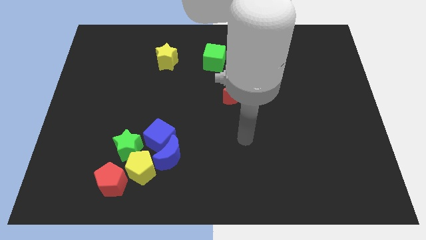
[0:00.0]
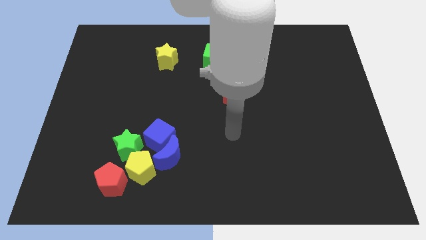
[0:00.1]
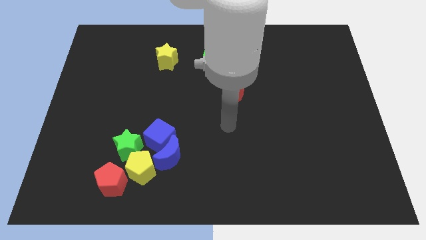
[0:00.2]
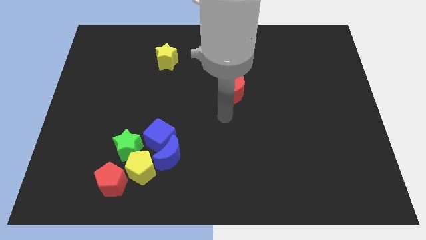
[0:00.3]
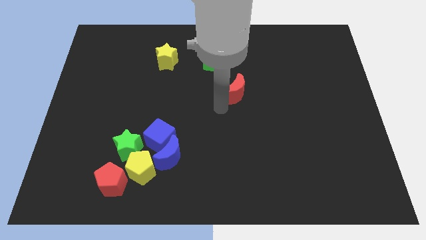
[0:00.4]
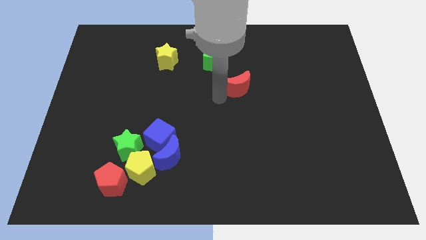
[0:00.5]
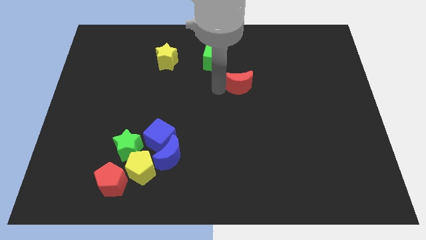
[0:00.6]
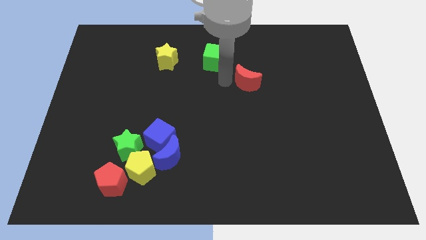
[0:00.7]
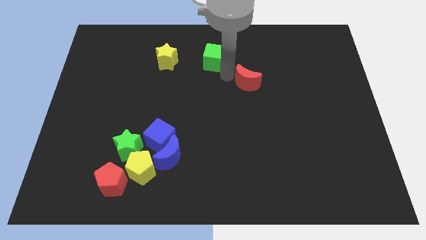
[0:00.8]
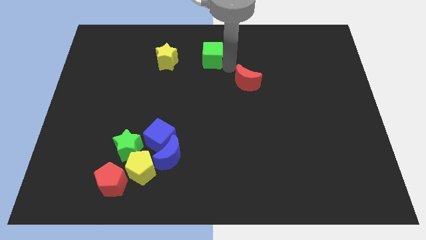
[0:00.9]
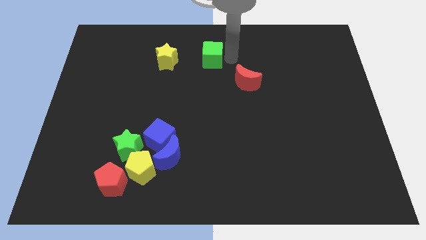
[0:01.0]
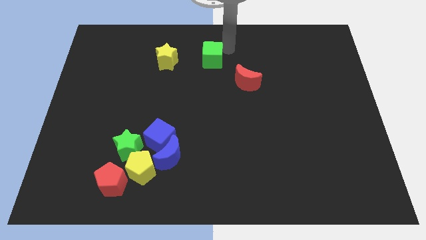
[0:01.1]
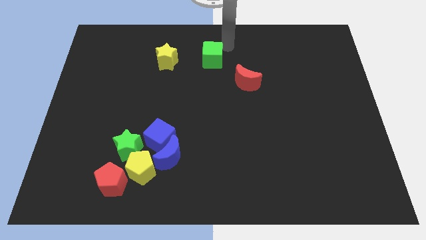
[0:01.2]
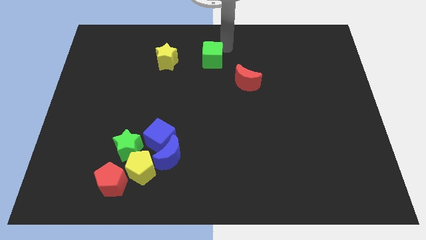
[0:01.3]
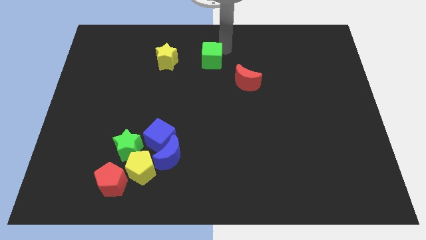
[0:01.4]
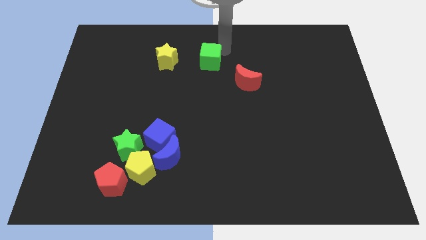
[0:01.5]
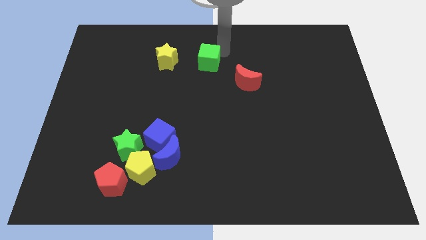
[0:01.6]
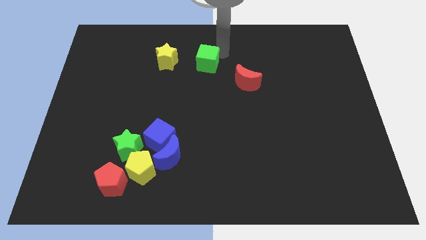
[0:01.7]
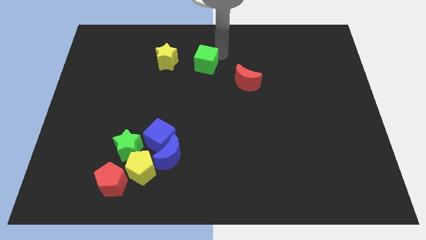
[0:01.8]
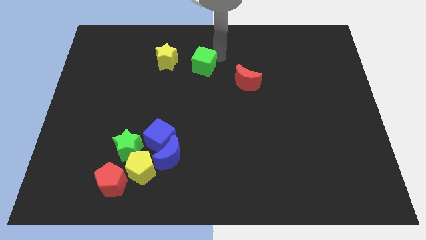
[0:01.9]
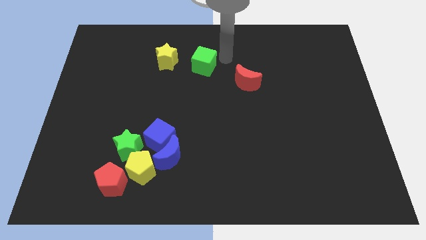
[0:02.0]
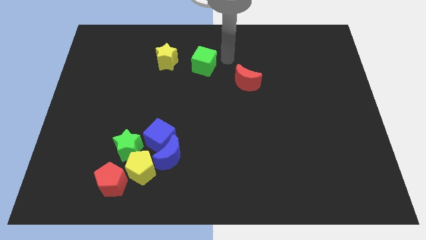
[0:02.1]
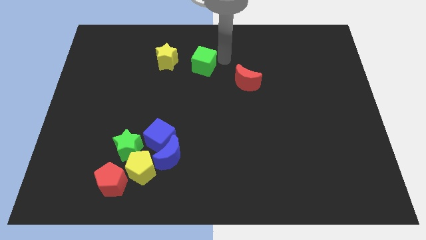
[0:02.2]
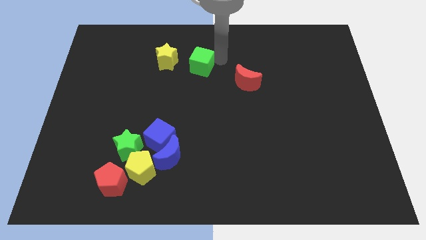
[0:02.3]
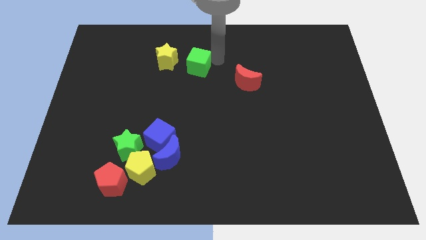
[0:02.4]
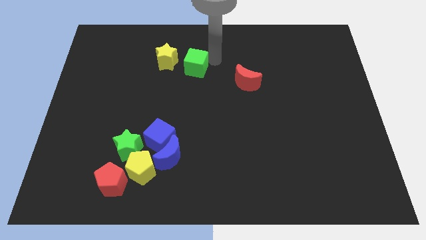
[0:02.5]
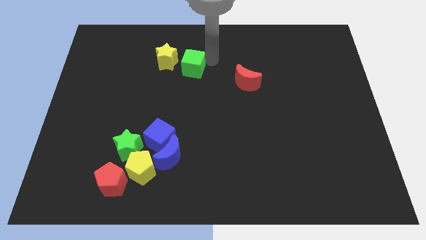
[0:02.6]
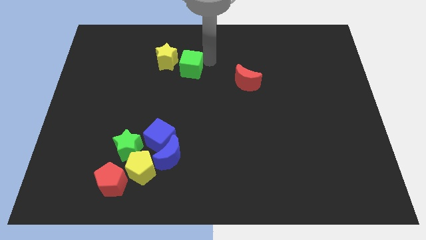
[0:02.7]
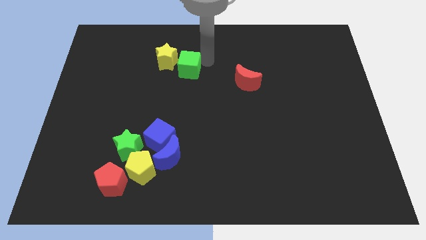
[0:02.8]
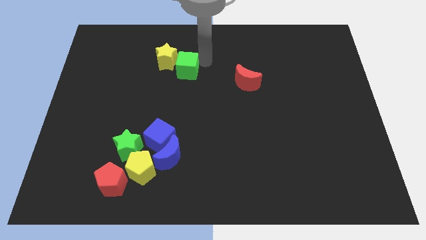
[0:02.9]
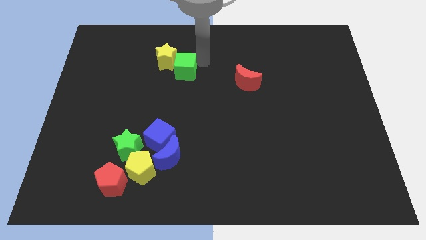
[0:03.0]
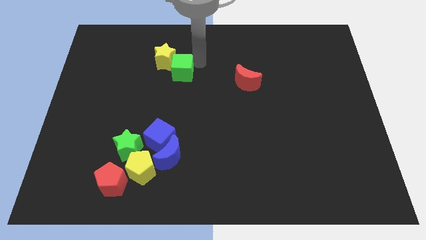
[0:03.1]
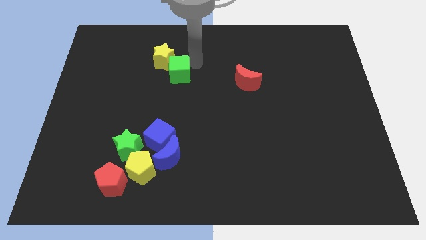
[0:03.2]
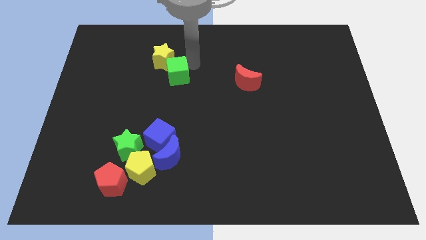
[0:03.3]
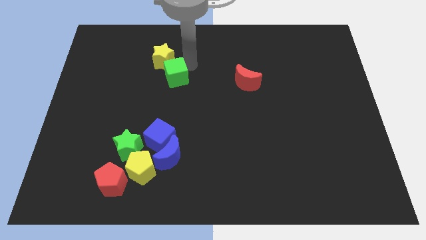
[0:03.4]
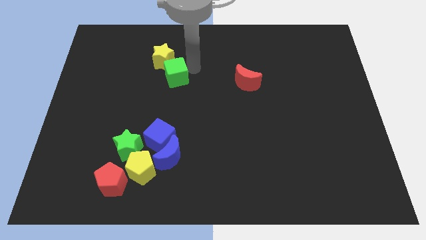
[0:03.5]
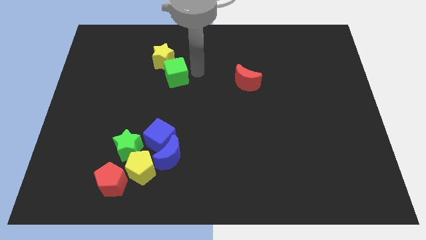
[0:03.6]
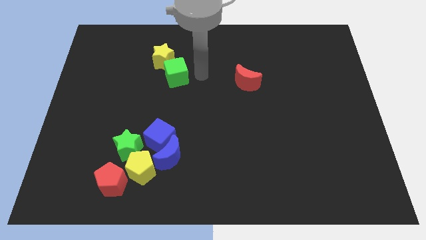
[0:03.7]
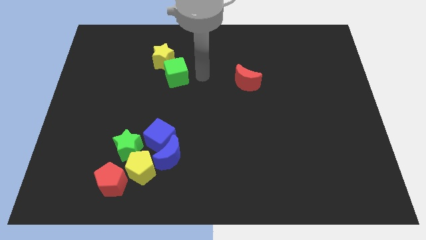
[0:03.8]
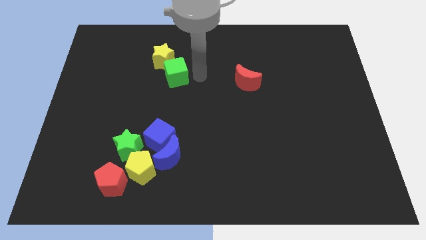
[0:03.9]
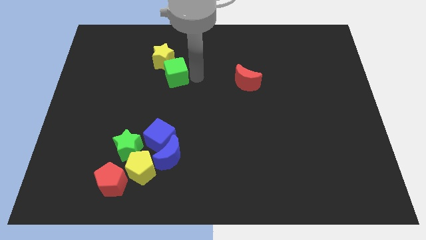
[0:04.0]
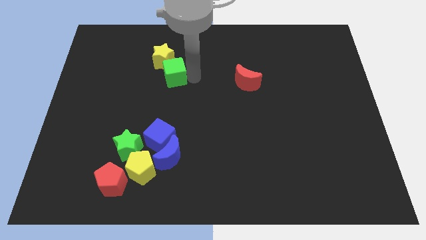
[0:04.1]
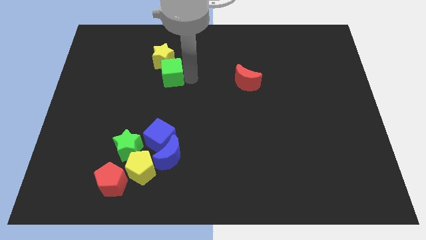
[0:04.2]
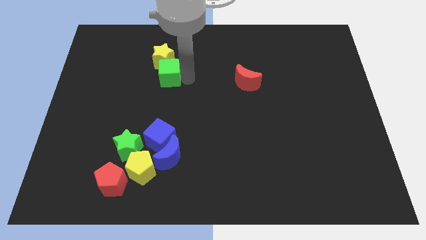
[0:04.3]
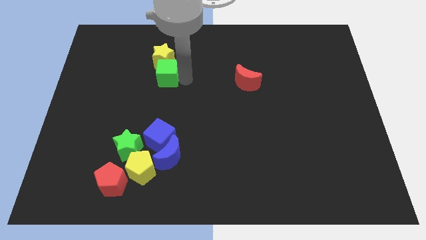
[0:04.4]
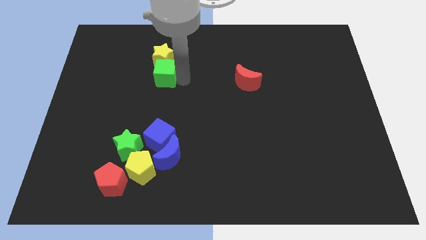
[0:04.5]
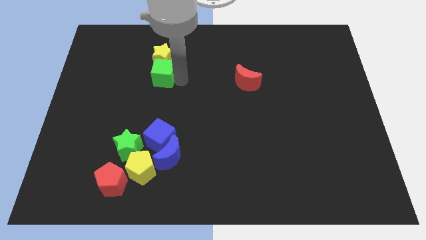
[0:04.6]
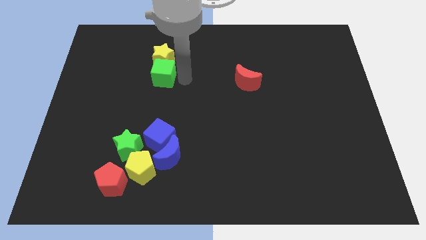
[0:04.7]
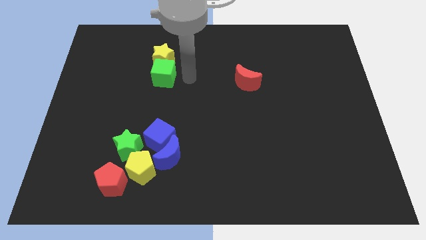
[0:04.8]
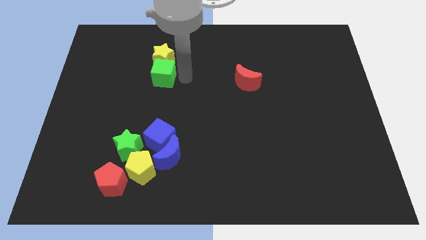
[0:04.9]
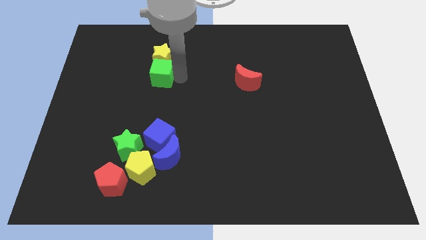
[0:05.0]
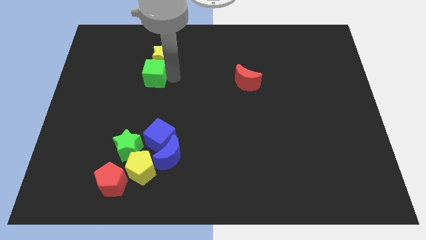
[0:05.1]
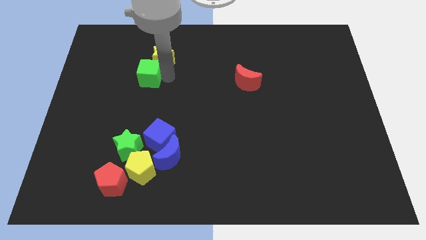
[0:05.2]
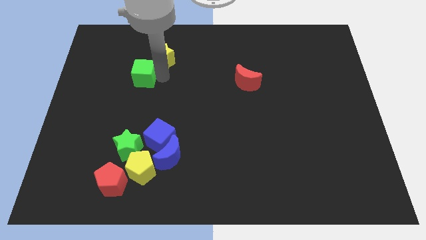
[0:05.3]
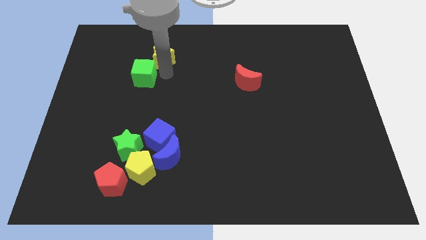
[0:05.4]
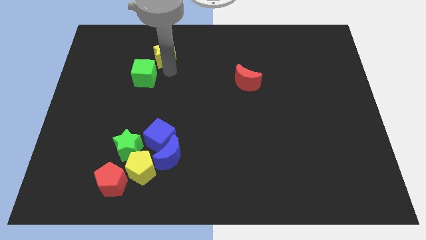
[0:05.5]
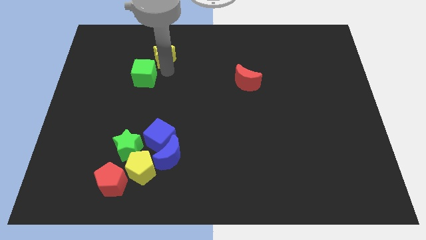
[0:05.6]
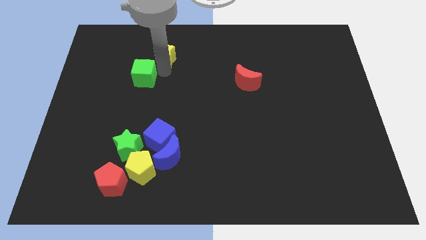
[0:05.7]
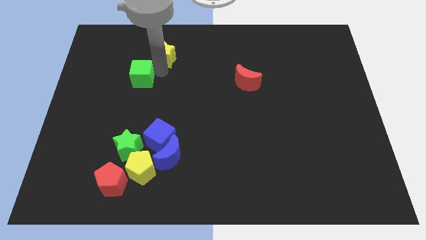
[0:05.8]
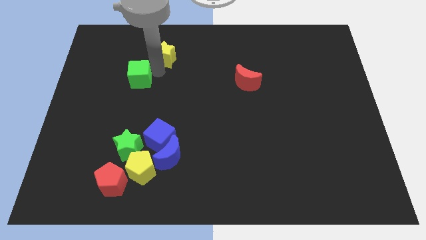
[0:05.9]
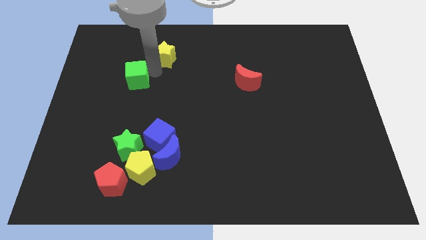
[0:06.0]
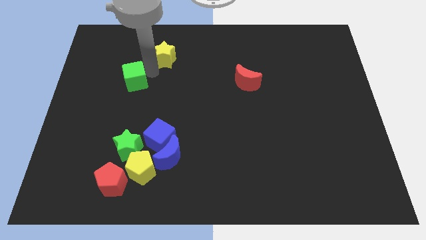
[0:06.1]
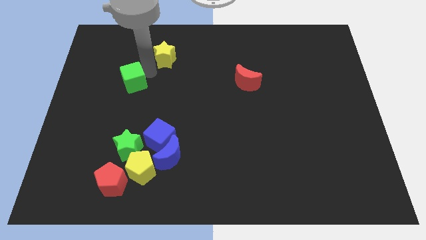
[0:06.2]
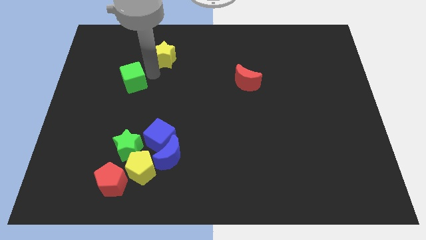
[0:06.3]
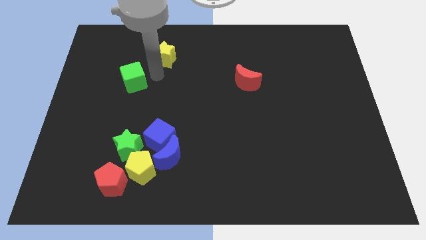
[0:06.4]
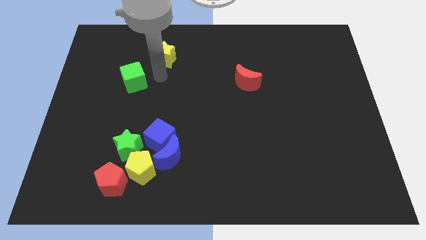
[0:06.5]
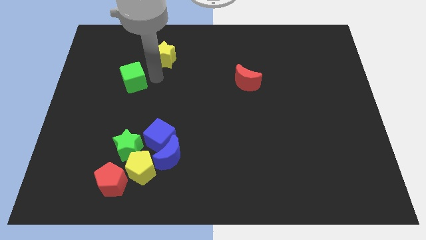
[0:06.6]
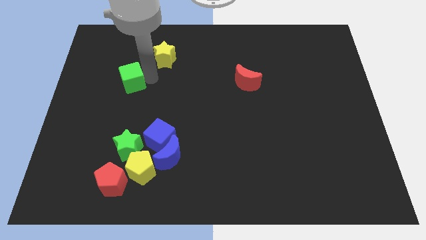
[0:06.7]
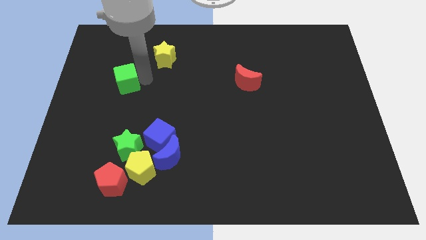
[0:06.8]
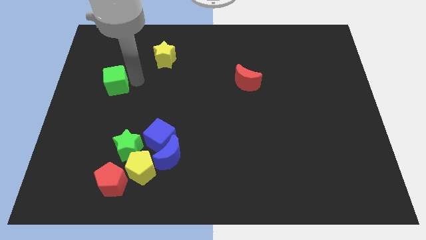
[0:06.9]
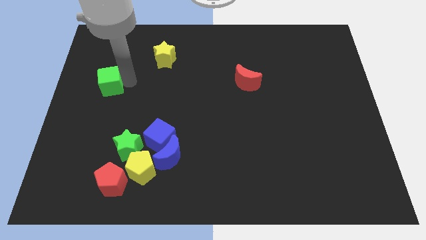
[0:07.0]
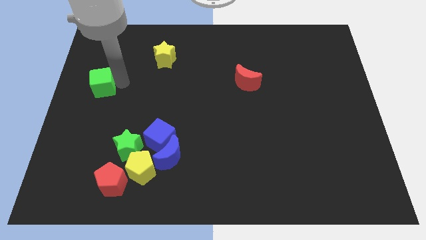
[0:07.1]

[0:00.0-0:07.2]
push the green cube to the left side of the board
